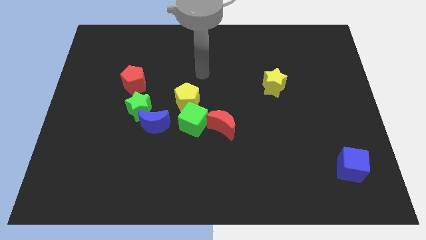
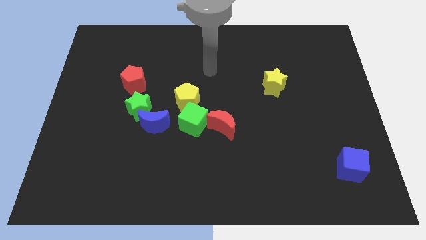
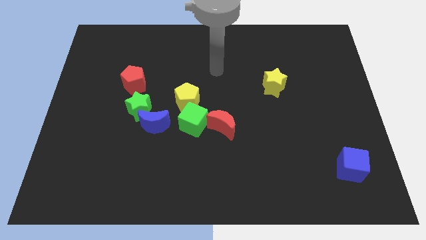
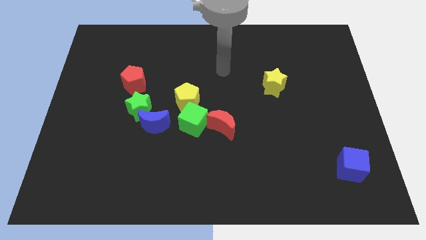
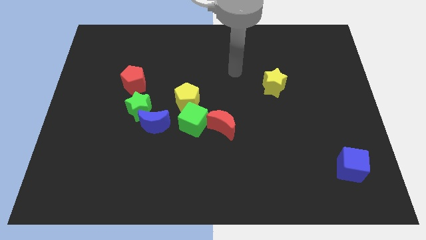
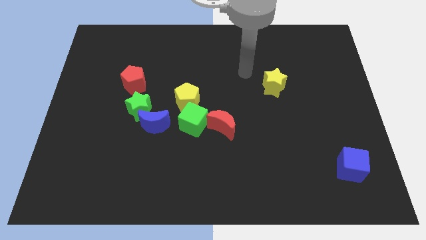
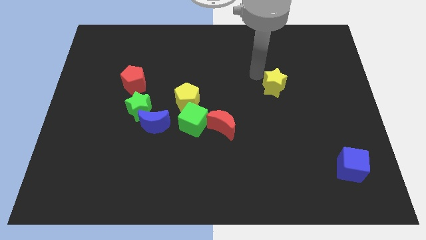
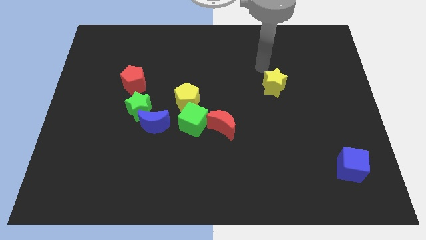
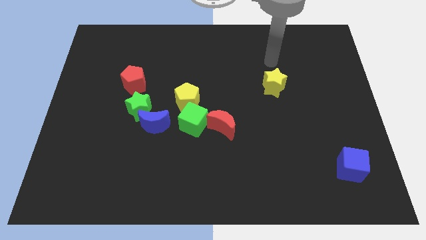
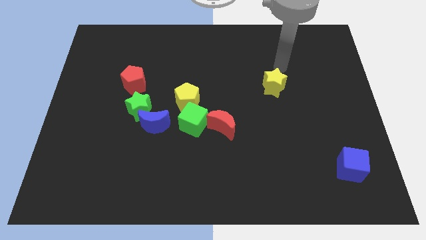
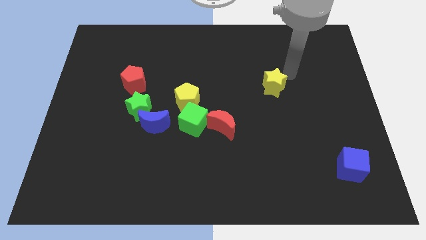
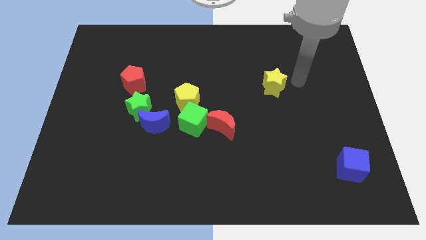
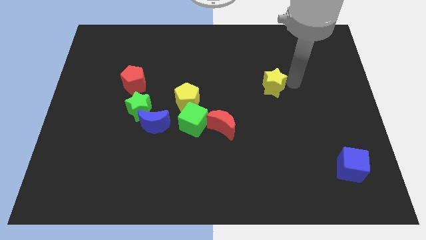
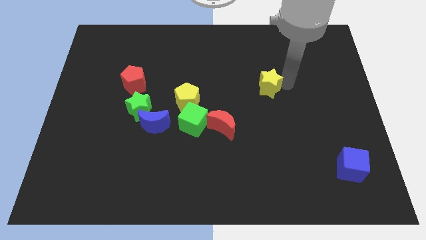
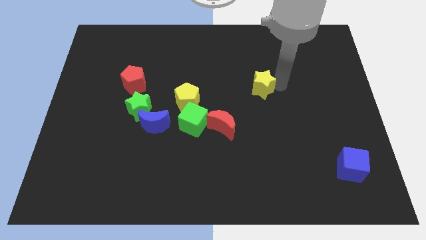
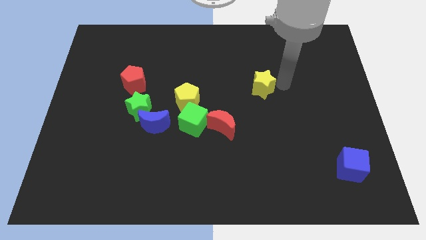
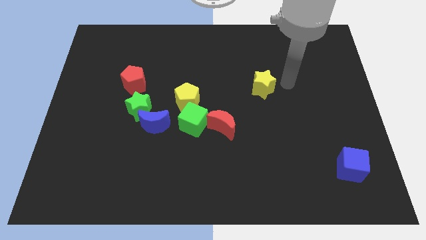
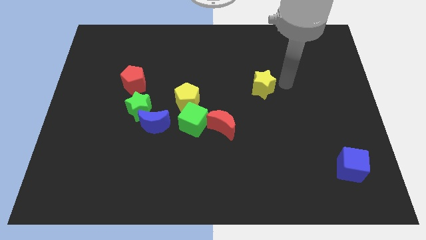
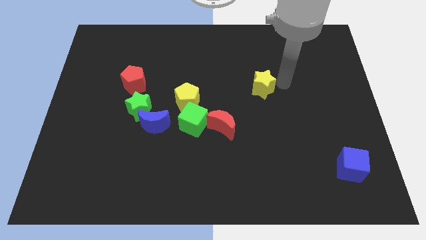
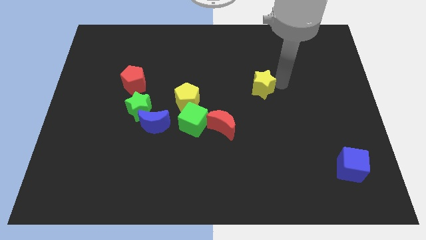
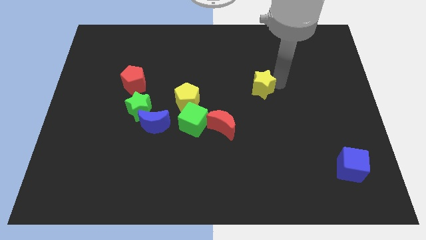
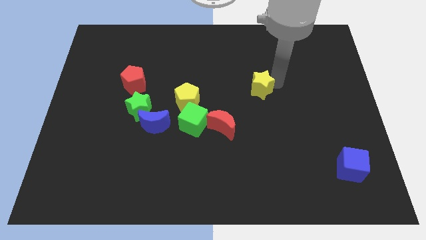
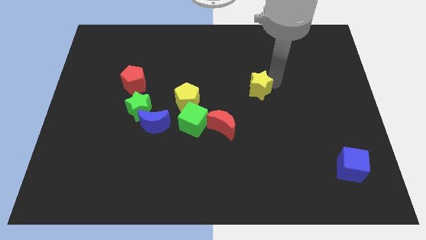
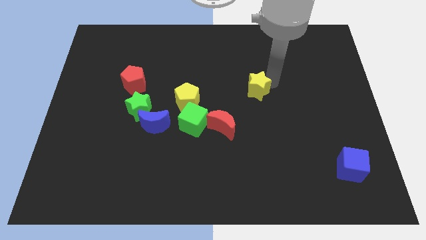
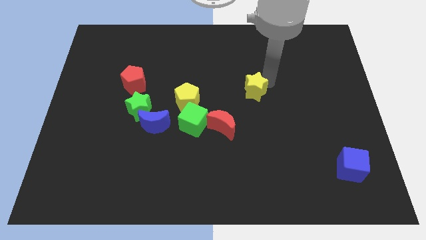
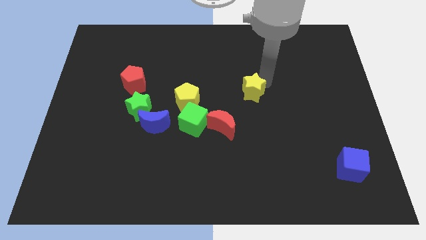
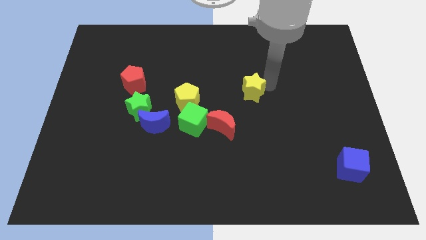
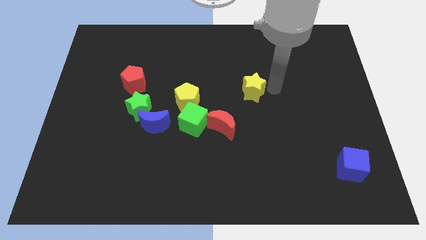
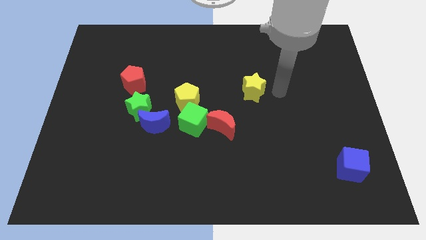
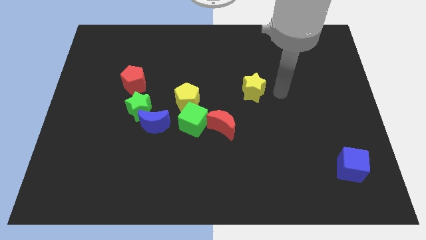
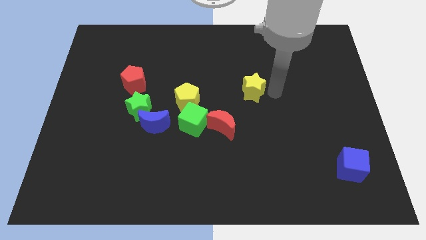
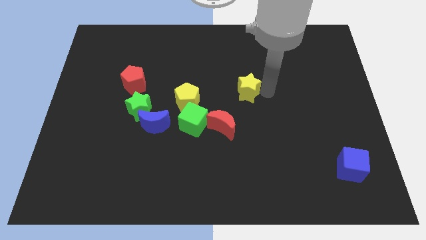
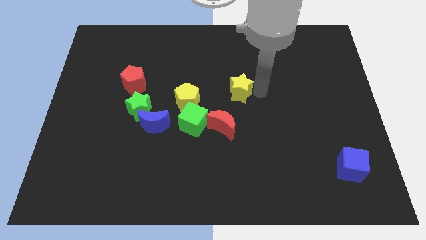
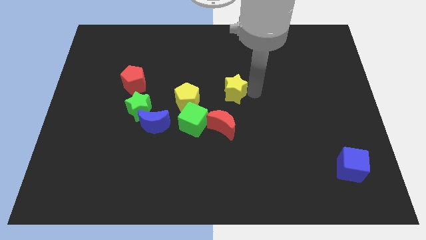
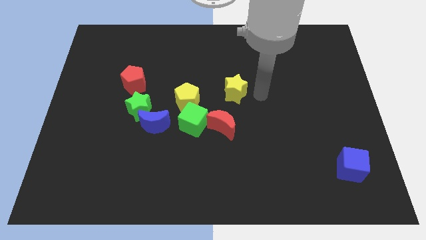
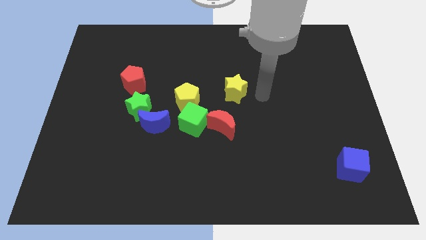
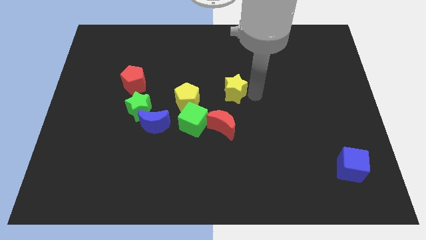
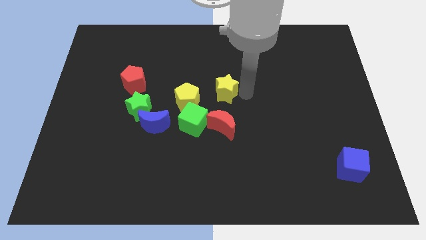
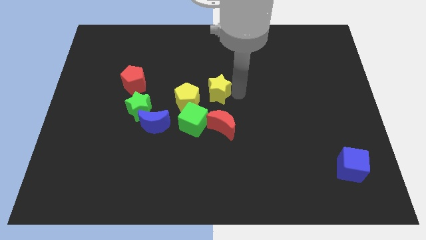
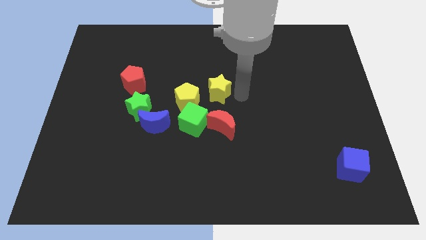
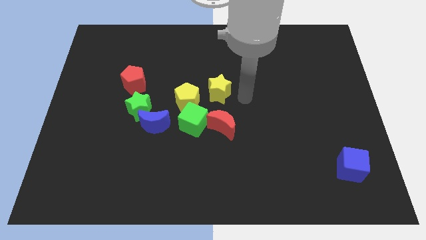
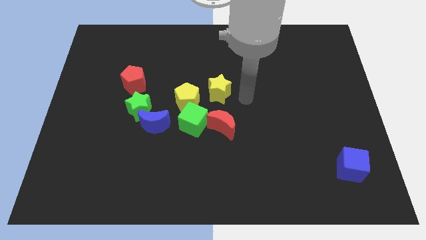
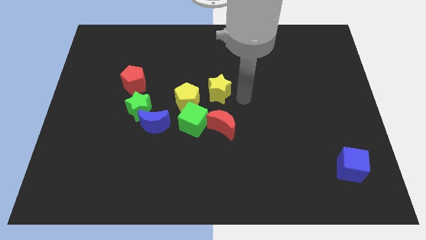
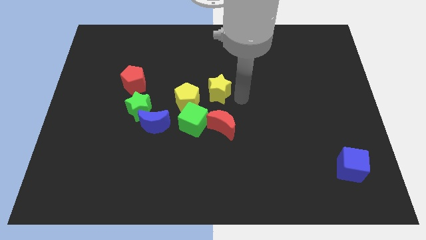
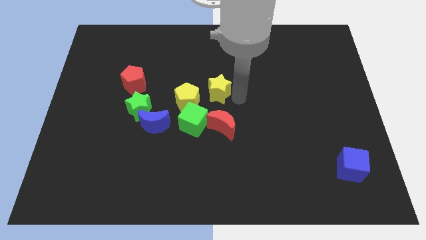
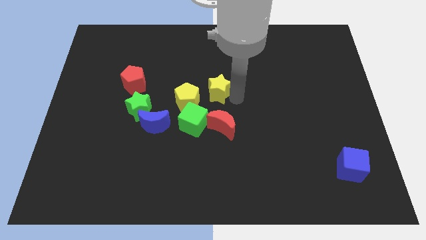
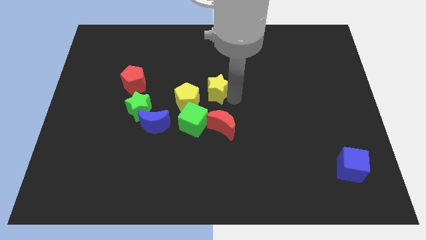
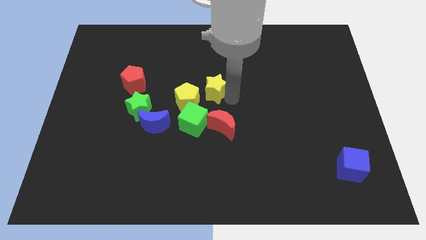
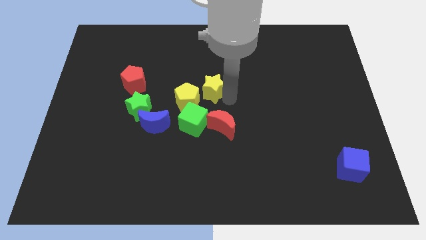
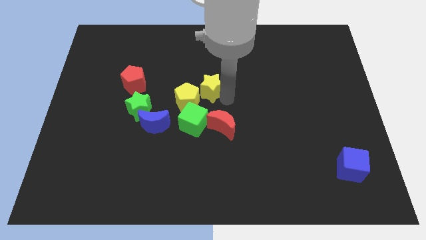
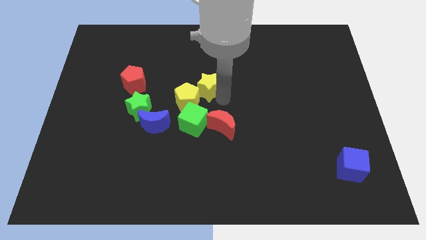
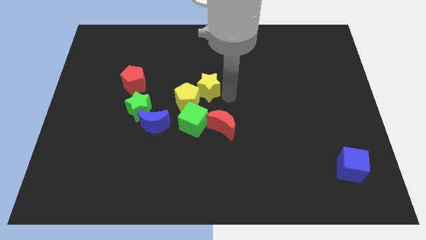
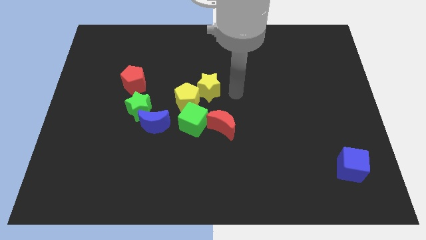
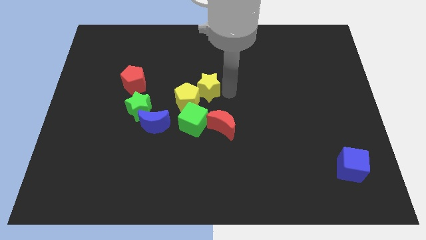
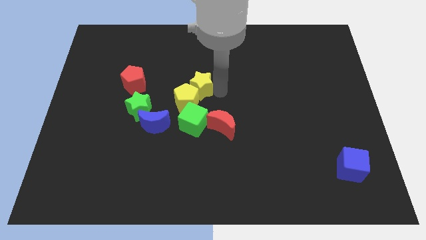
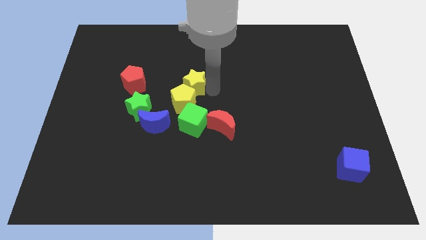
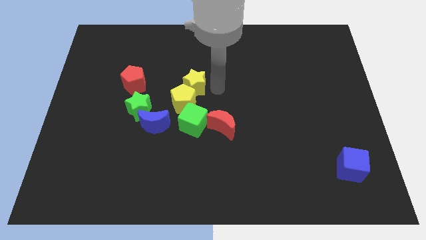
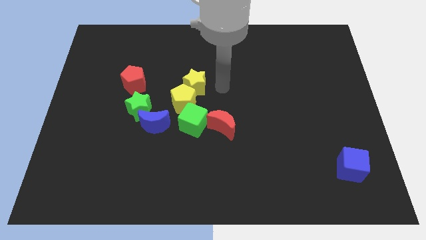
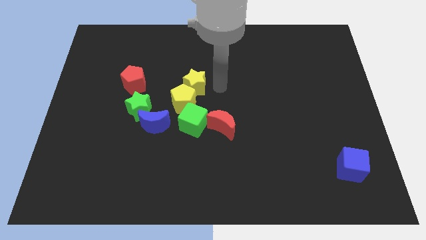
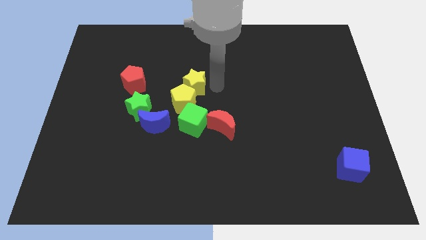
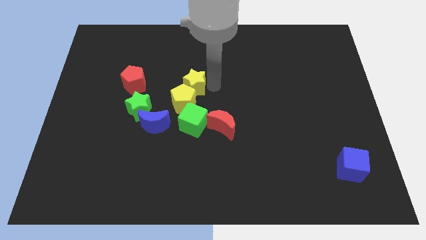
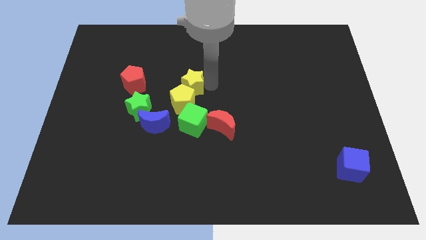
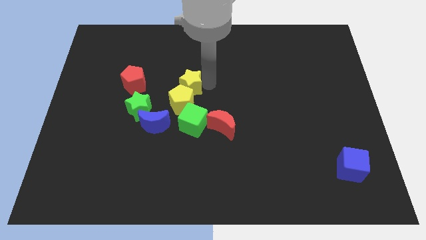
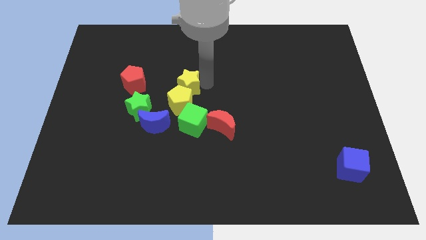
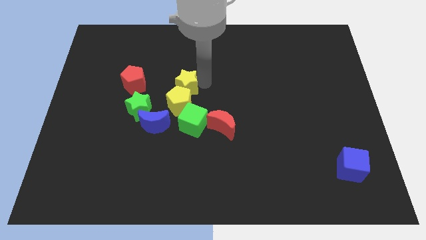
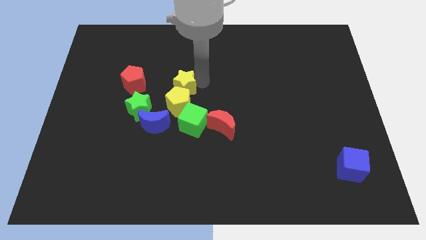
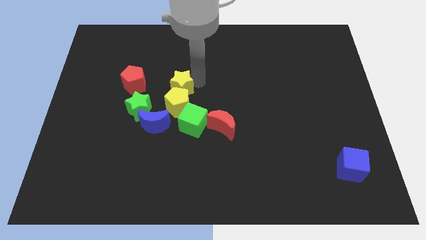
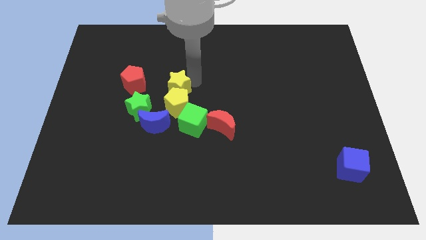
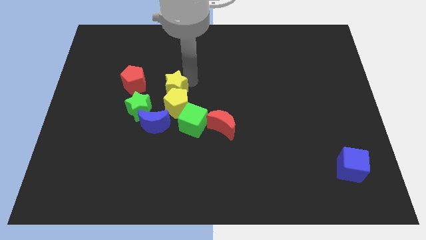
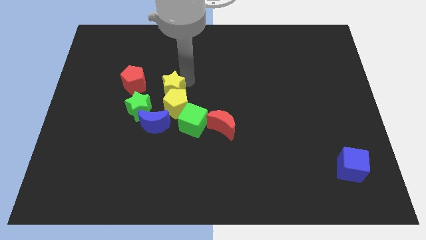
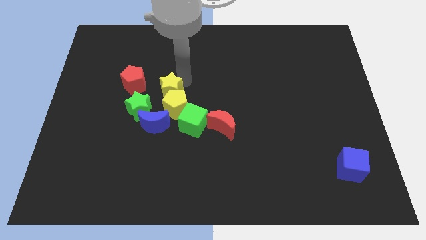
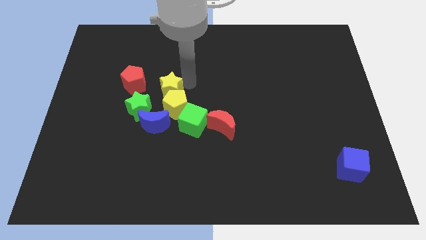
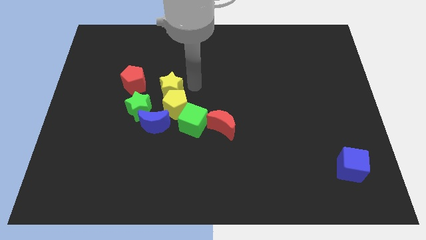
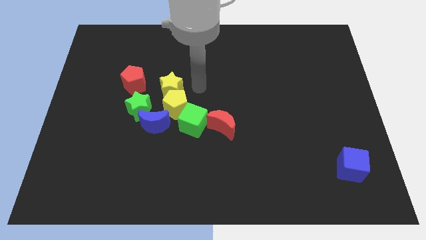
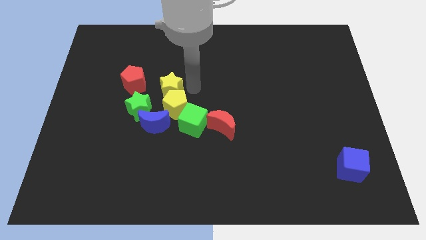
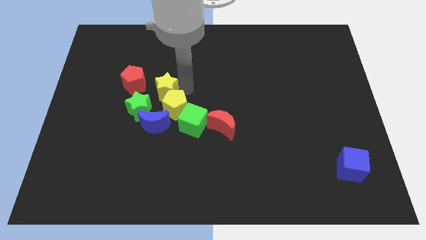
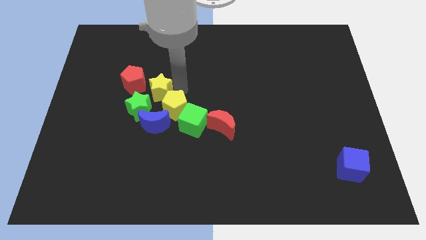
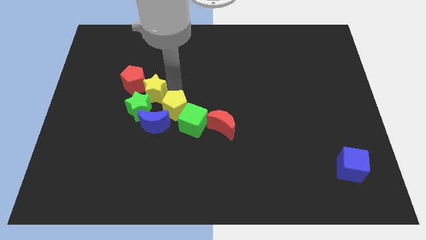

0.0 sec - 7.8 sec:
move the yellow star just left of the yellow pentagon
